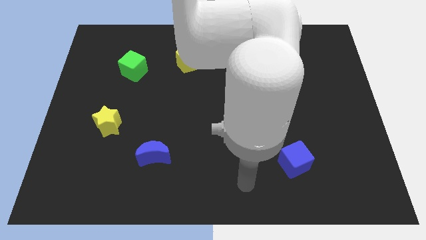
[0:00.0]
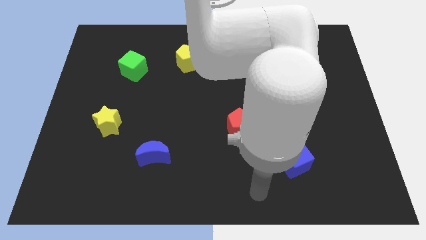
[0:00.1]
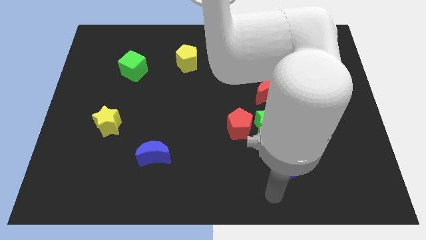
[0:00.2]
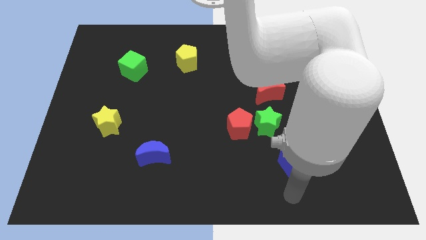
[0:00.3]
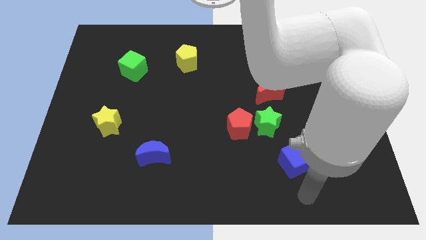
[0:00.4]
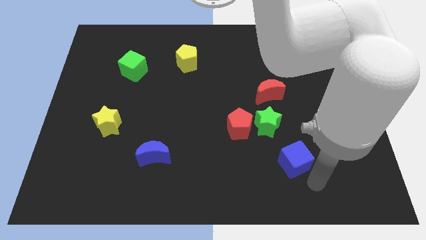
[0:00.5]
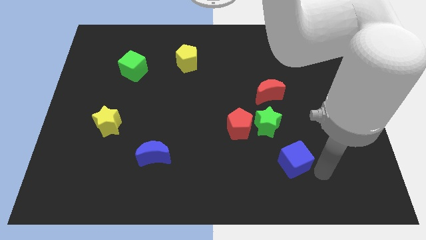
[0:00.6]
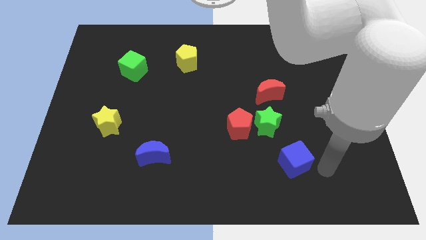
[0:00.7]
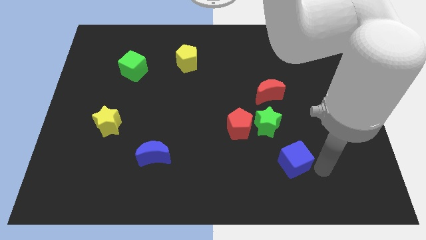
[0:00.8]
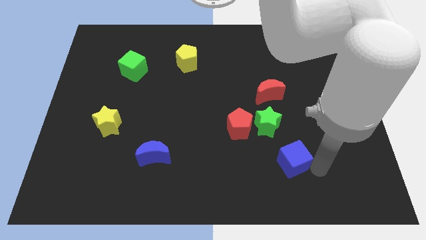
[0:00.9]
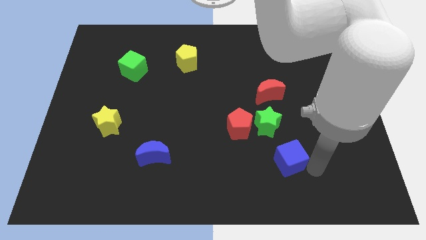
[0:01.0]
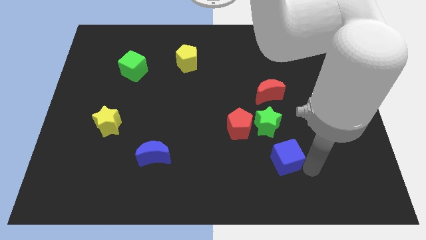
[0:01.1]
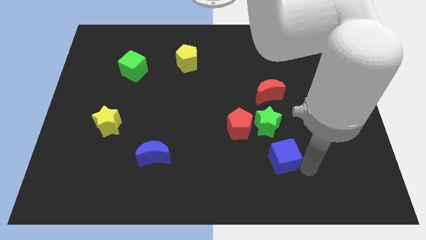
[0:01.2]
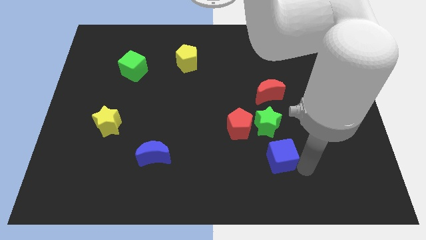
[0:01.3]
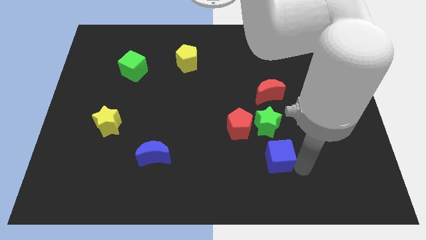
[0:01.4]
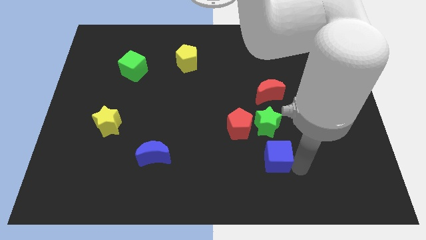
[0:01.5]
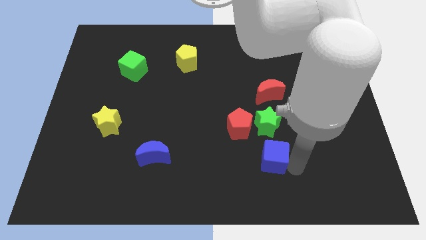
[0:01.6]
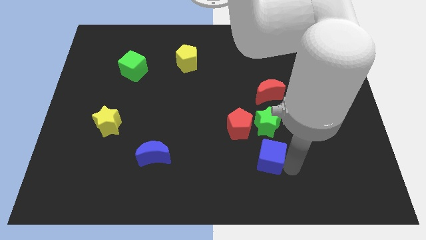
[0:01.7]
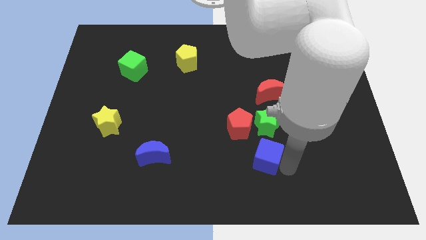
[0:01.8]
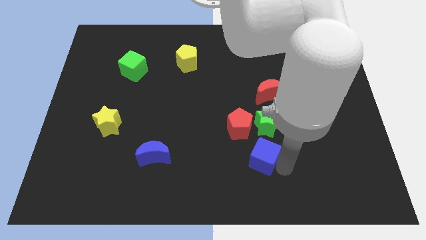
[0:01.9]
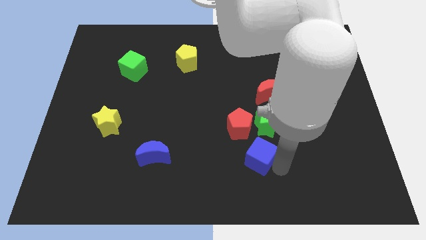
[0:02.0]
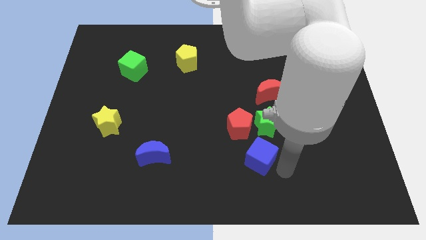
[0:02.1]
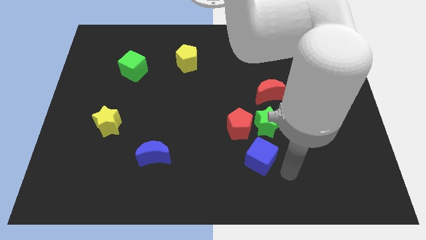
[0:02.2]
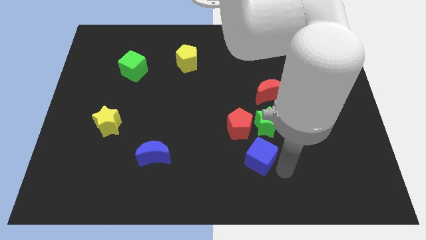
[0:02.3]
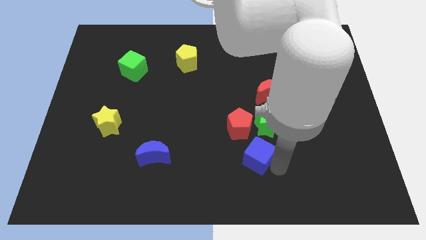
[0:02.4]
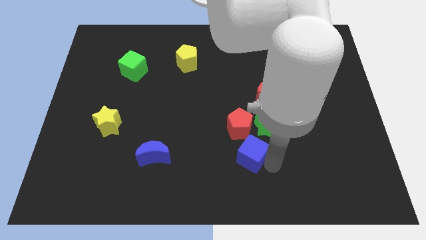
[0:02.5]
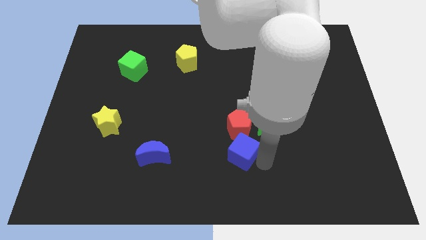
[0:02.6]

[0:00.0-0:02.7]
push the blue cube up and to the left a little

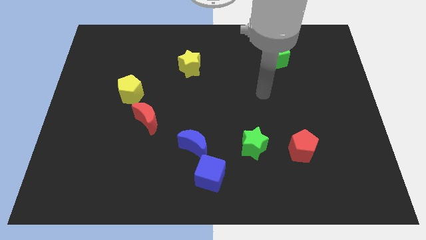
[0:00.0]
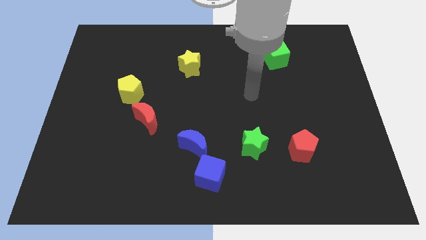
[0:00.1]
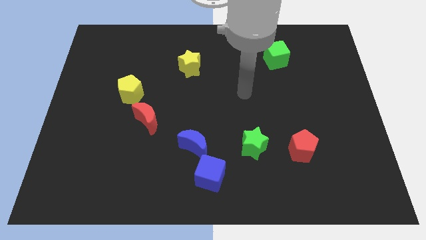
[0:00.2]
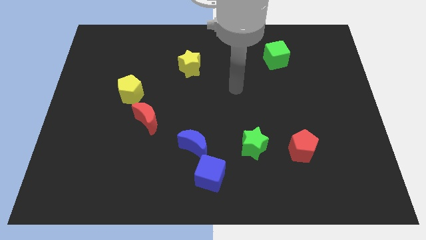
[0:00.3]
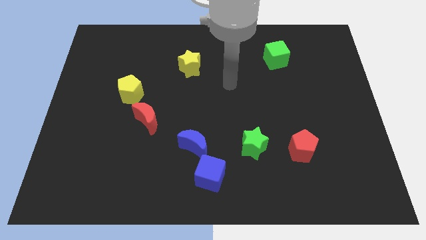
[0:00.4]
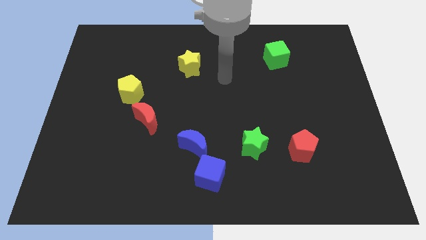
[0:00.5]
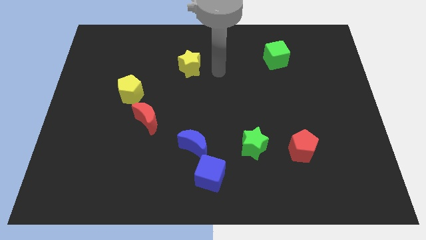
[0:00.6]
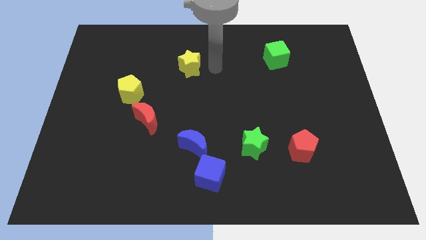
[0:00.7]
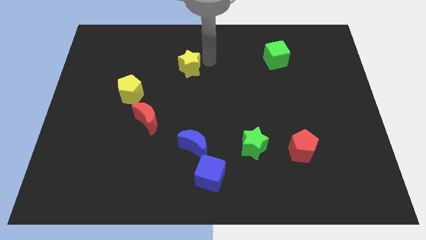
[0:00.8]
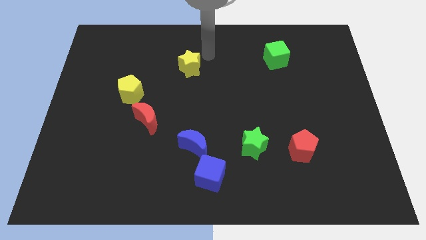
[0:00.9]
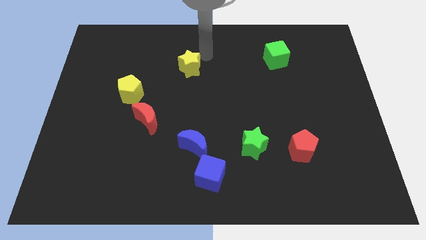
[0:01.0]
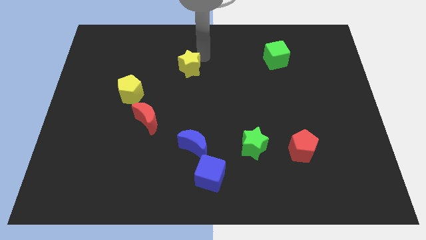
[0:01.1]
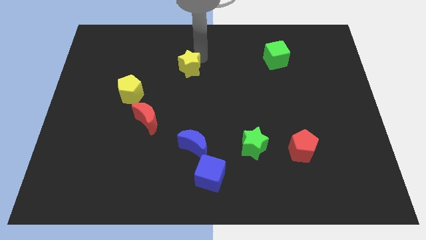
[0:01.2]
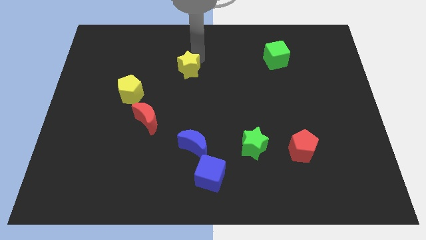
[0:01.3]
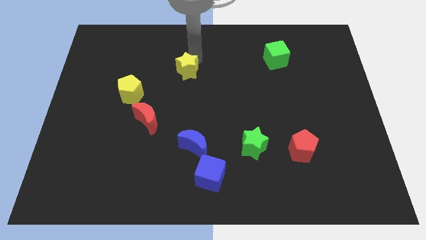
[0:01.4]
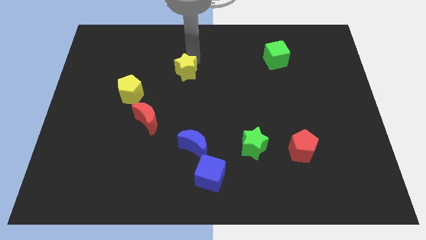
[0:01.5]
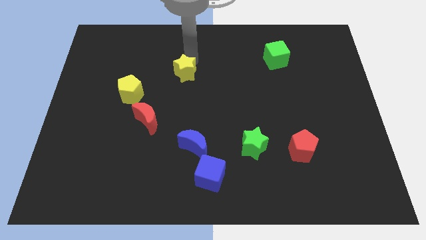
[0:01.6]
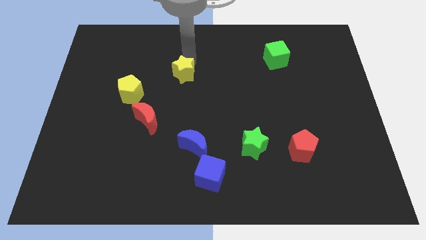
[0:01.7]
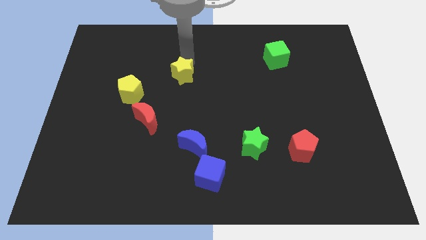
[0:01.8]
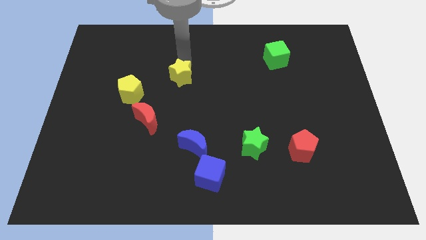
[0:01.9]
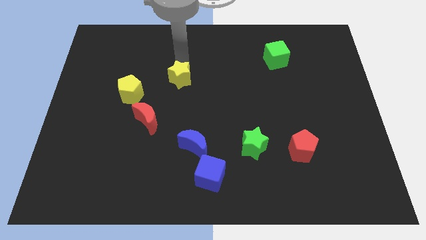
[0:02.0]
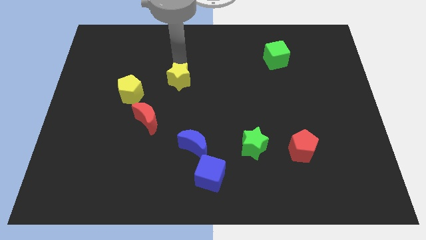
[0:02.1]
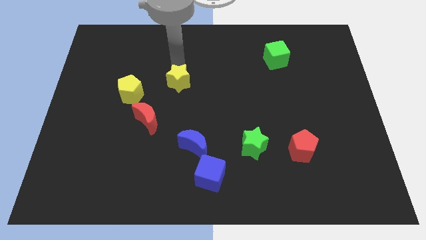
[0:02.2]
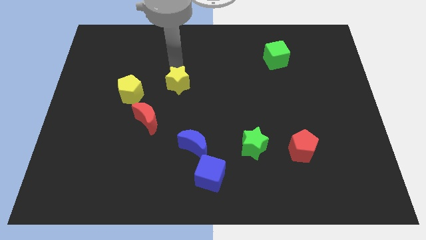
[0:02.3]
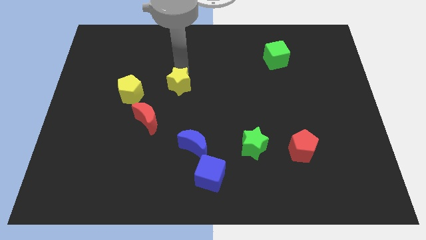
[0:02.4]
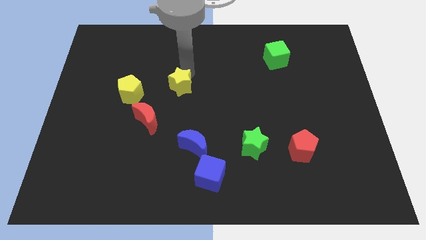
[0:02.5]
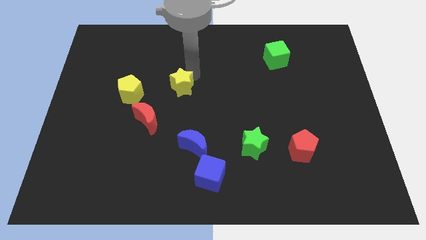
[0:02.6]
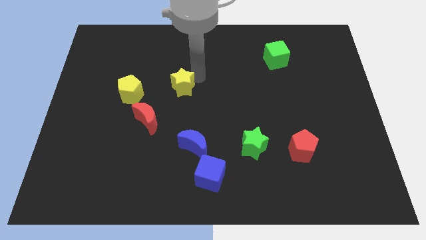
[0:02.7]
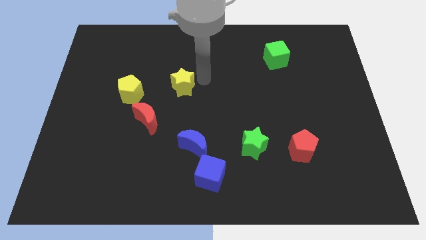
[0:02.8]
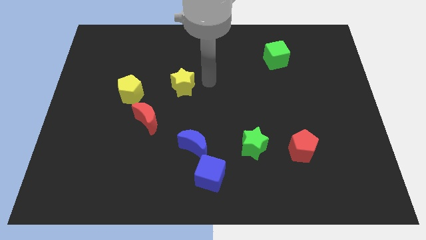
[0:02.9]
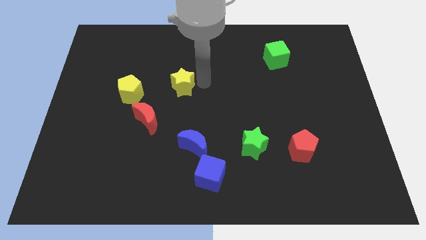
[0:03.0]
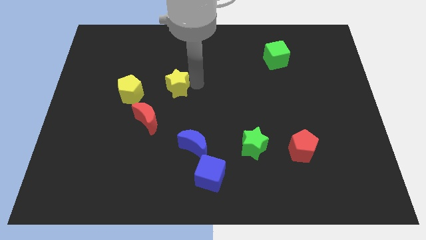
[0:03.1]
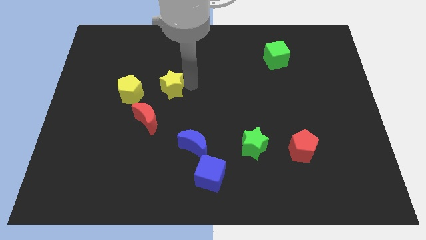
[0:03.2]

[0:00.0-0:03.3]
push the yellow star somewhat downwards and to the left

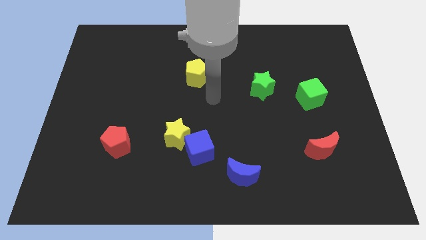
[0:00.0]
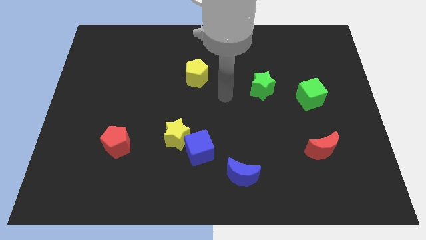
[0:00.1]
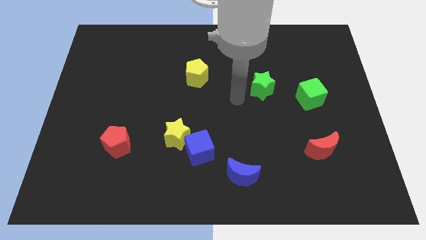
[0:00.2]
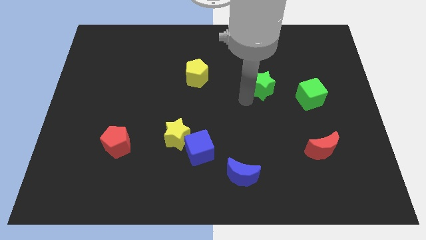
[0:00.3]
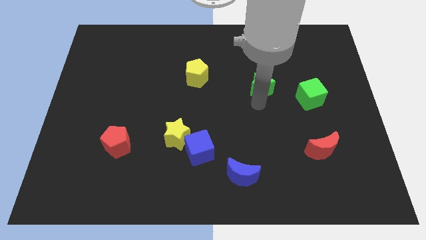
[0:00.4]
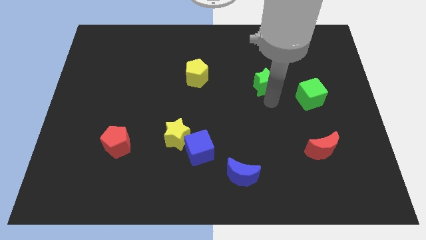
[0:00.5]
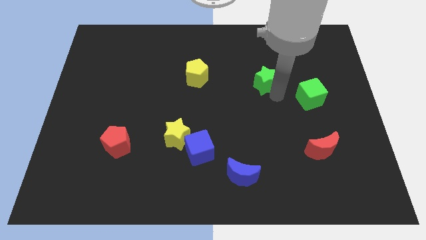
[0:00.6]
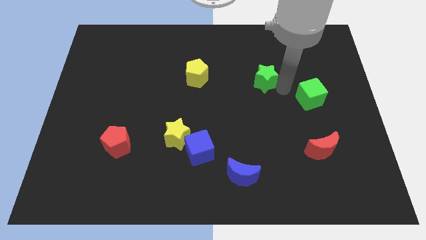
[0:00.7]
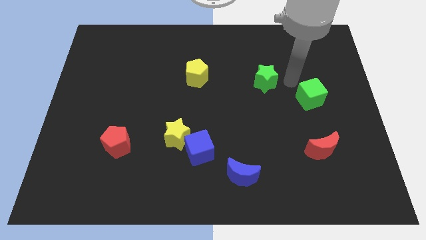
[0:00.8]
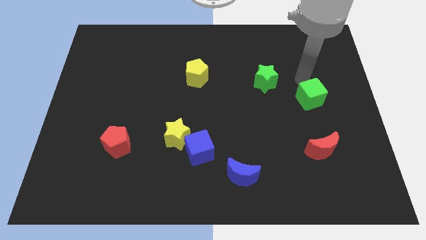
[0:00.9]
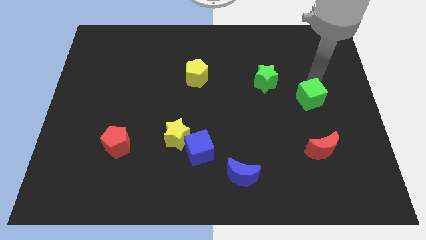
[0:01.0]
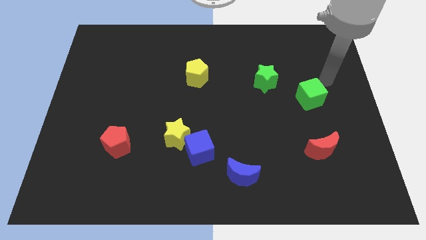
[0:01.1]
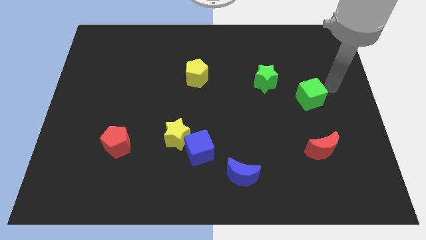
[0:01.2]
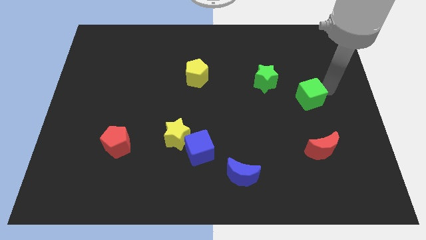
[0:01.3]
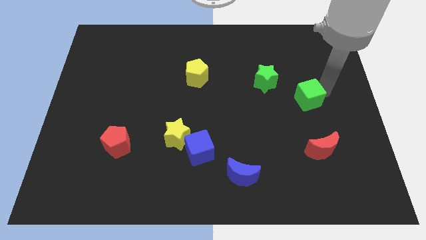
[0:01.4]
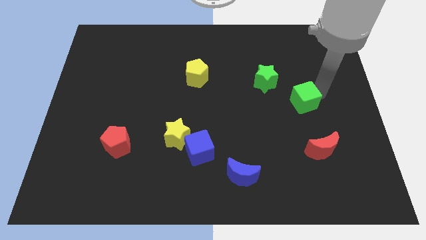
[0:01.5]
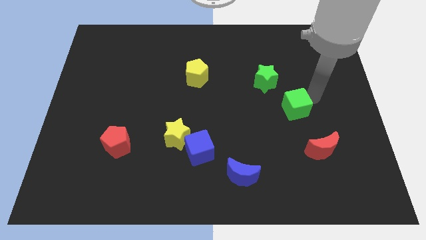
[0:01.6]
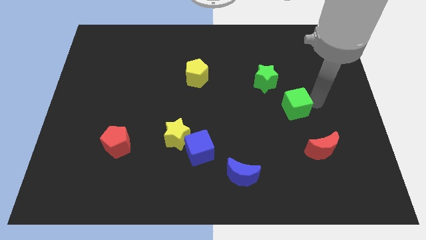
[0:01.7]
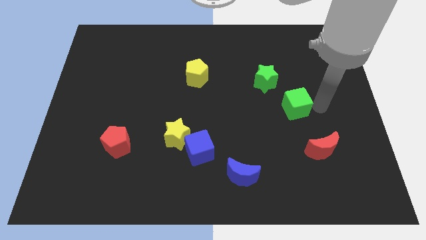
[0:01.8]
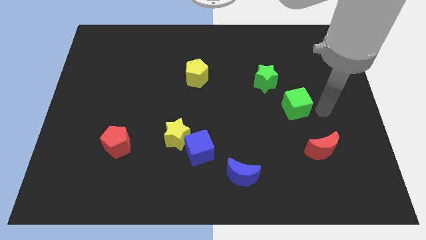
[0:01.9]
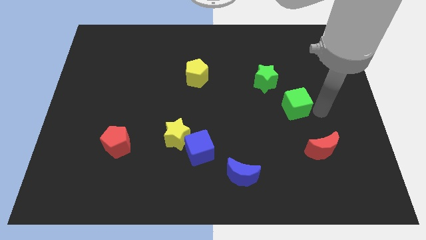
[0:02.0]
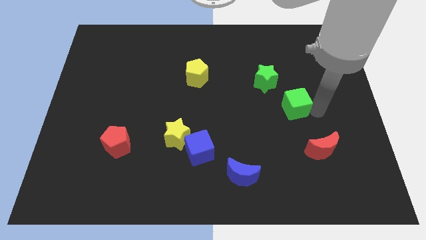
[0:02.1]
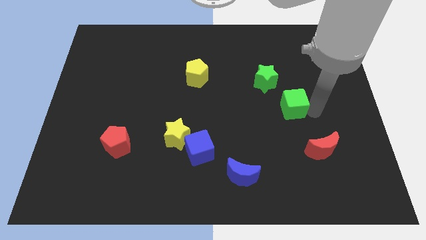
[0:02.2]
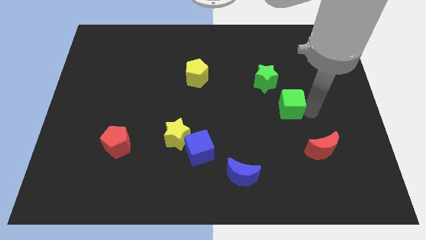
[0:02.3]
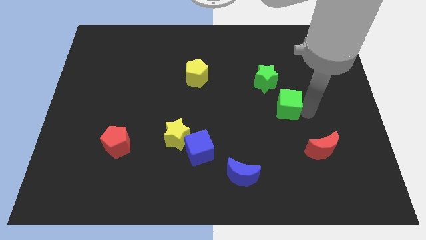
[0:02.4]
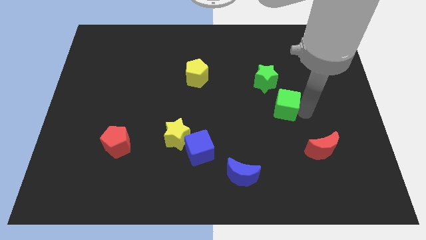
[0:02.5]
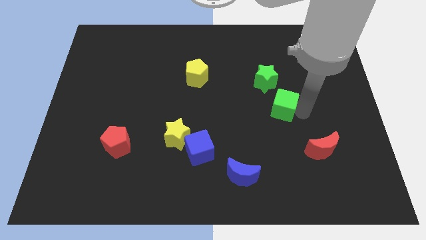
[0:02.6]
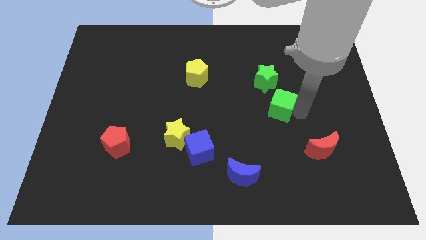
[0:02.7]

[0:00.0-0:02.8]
slide the green cube left somewhat
